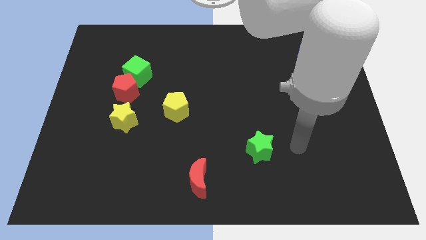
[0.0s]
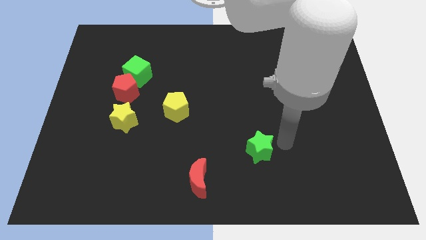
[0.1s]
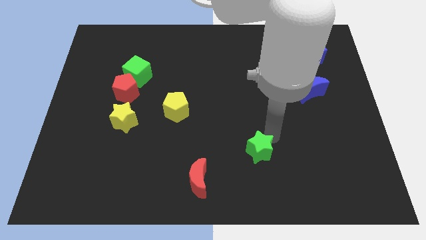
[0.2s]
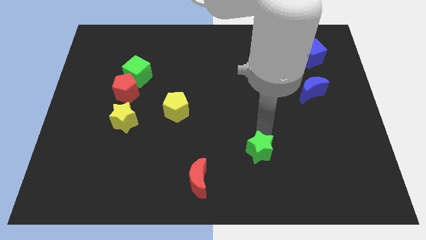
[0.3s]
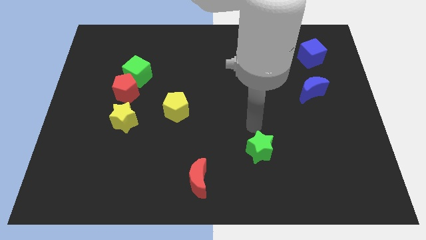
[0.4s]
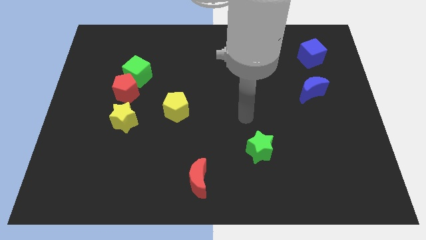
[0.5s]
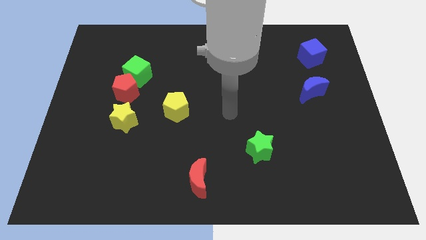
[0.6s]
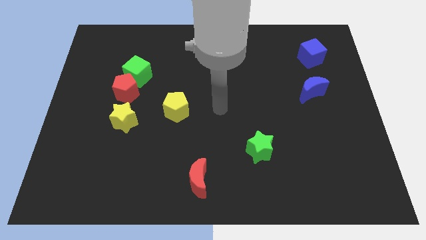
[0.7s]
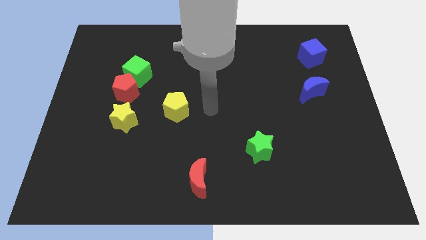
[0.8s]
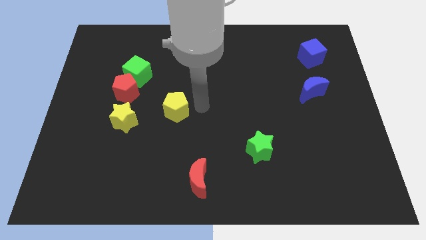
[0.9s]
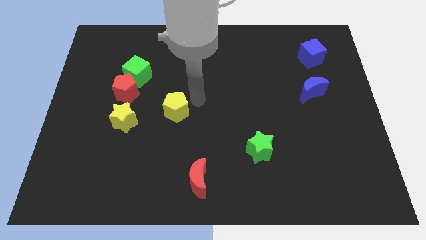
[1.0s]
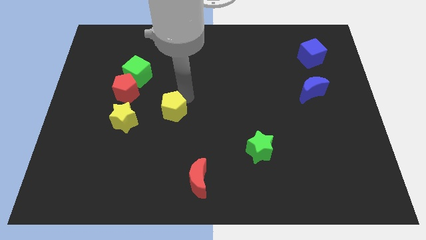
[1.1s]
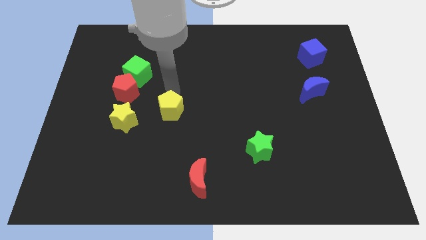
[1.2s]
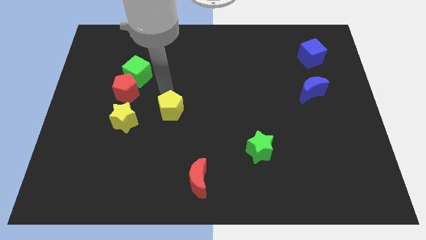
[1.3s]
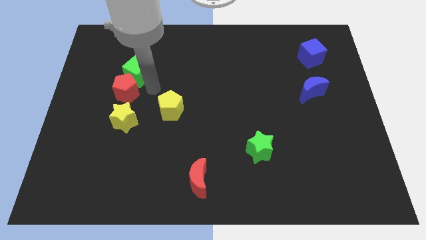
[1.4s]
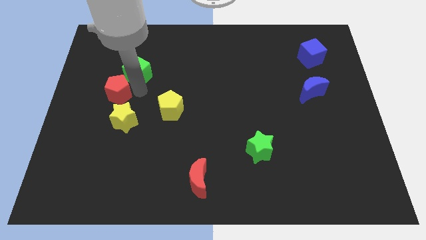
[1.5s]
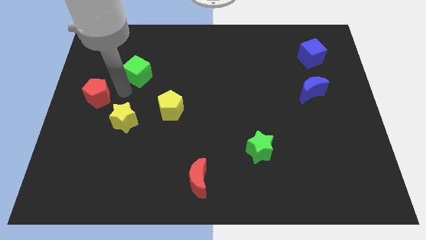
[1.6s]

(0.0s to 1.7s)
move the green cube away from the red pentagon

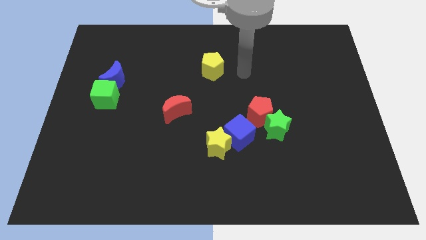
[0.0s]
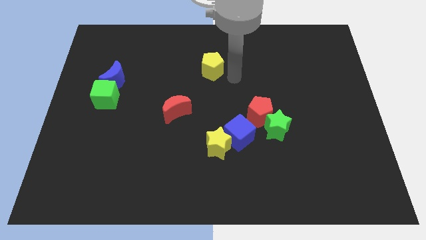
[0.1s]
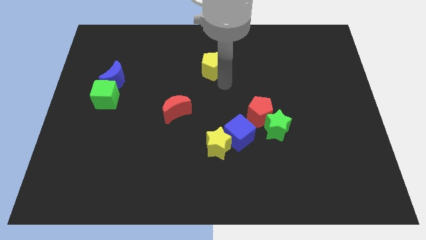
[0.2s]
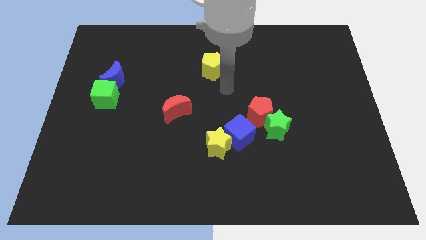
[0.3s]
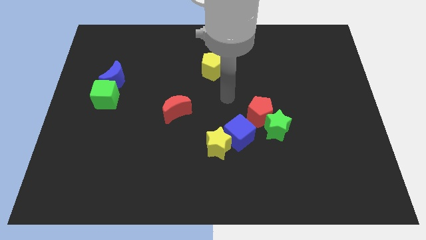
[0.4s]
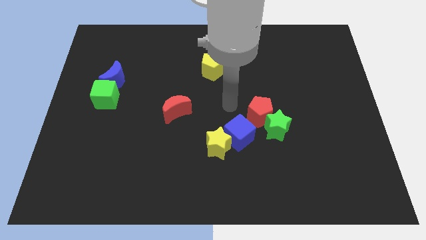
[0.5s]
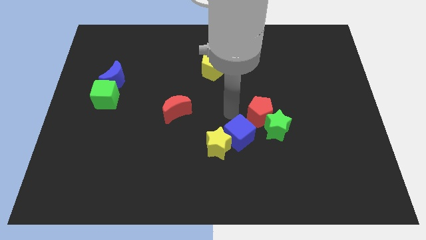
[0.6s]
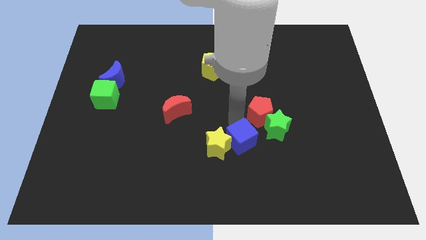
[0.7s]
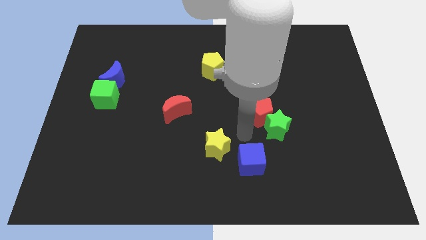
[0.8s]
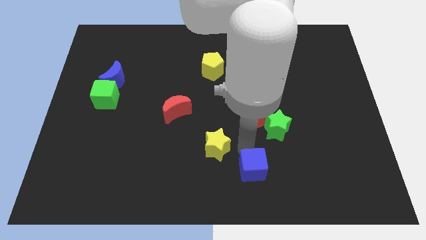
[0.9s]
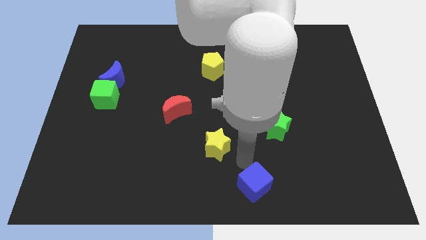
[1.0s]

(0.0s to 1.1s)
pull the yellow star apart from the blue cube

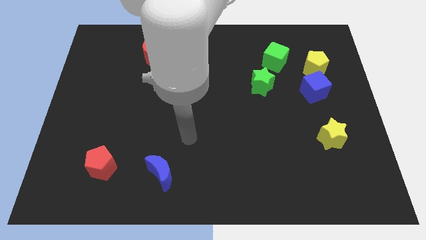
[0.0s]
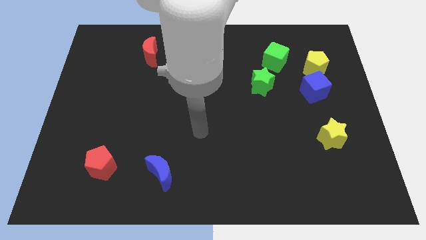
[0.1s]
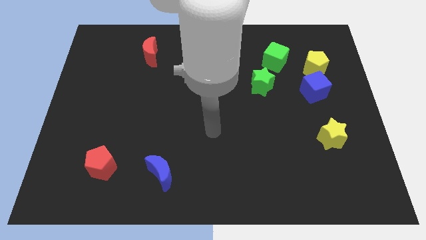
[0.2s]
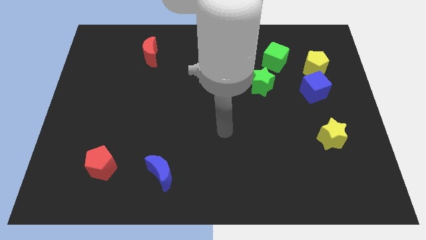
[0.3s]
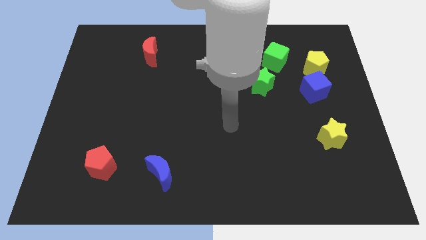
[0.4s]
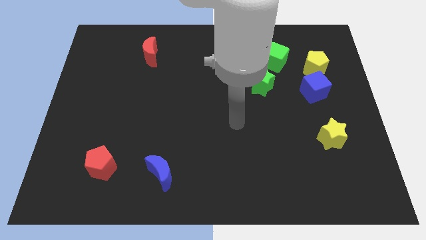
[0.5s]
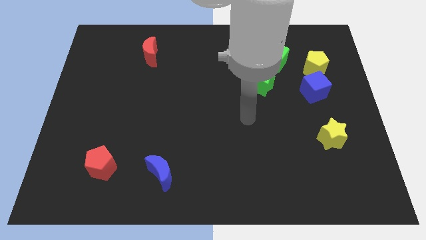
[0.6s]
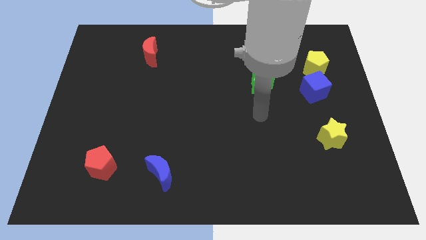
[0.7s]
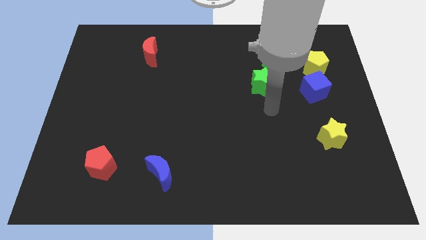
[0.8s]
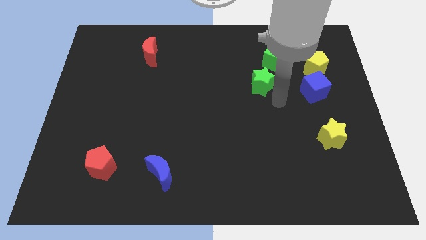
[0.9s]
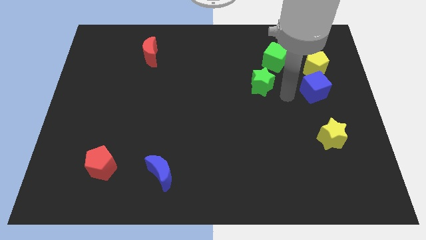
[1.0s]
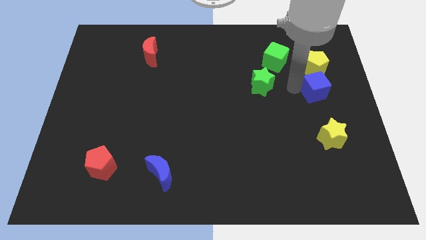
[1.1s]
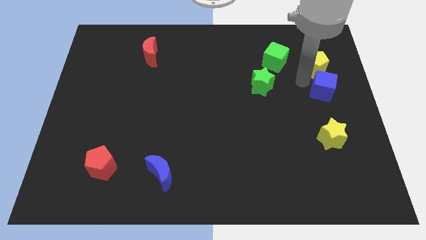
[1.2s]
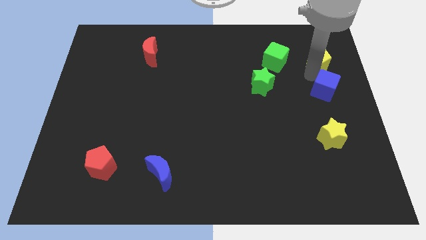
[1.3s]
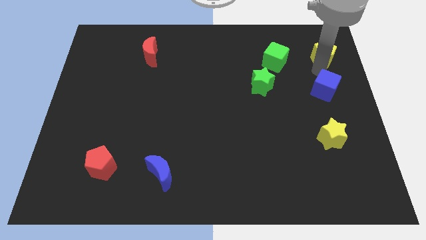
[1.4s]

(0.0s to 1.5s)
separate the blue cube from the yellow pentagon

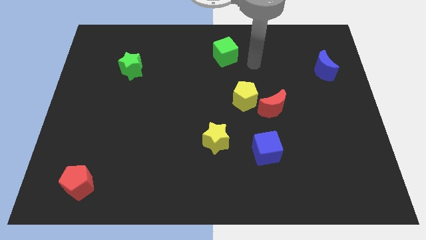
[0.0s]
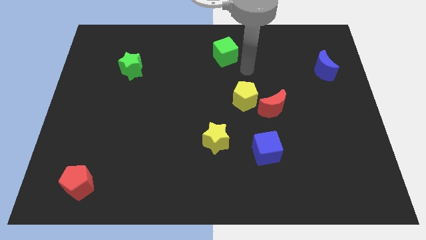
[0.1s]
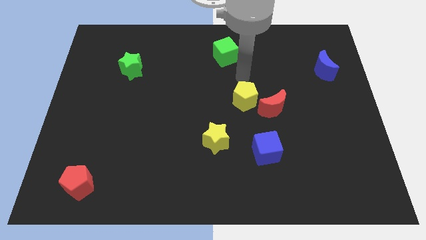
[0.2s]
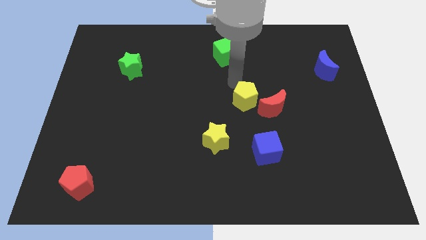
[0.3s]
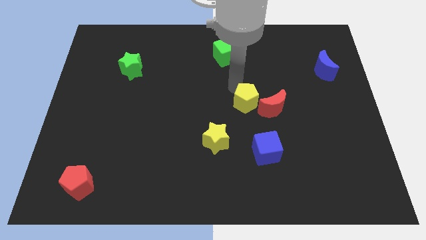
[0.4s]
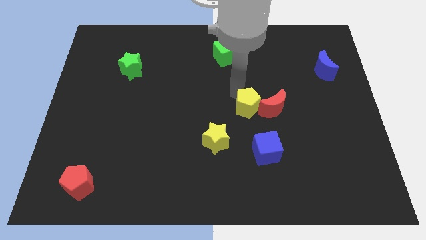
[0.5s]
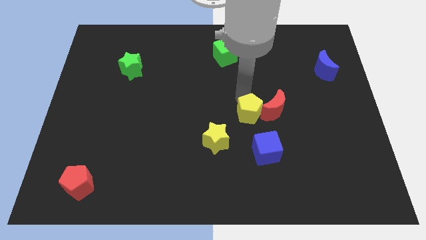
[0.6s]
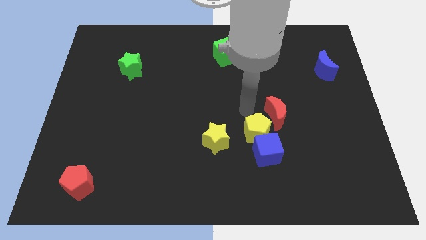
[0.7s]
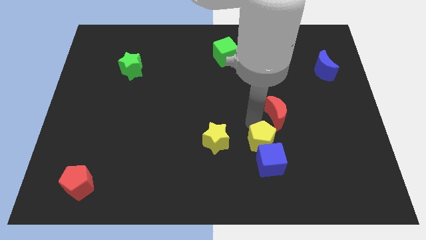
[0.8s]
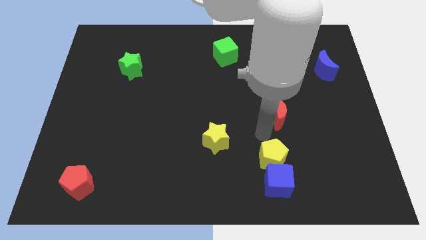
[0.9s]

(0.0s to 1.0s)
move the red moon away from the yellow pentagon

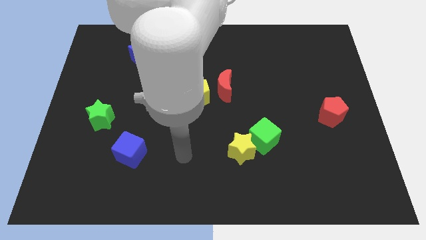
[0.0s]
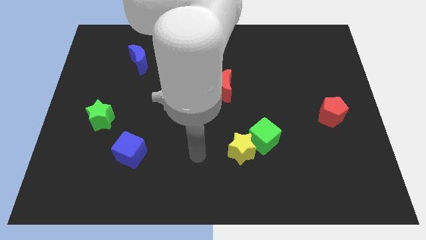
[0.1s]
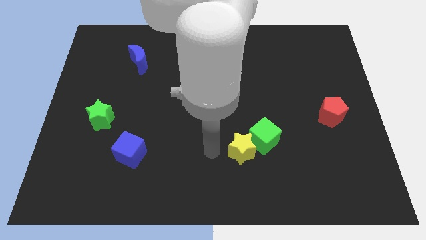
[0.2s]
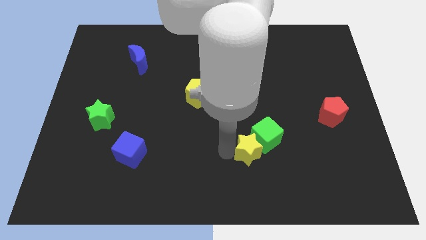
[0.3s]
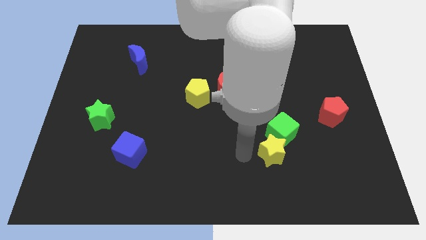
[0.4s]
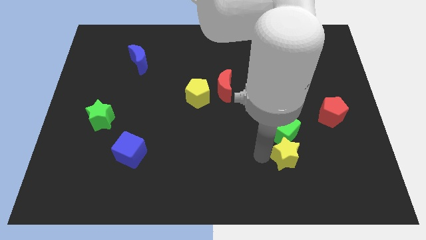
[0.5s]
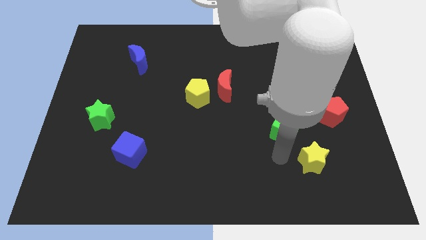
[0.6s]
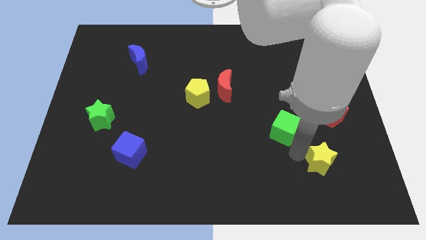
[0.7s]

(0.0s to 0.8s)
pull the green cube apart from the yellow star

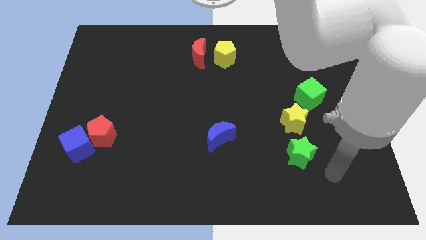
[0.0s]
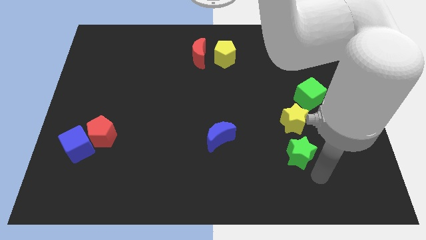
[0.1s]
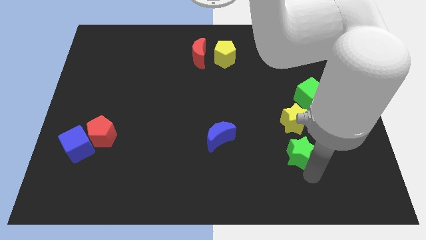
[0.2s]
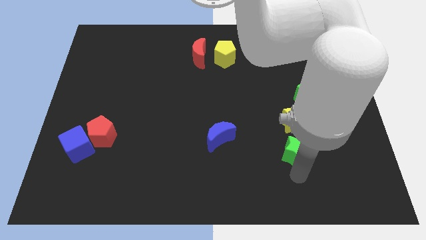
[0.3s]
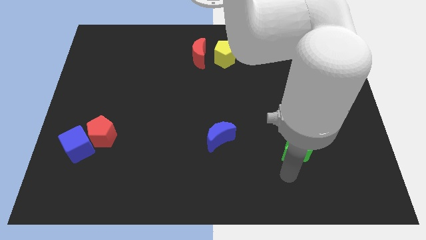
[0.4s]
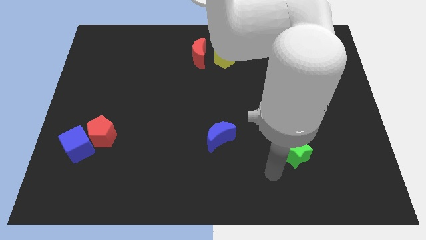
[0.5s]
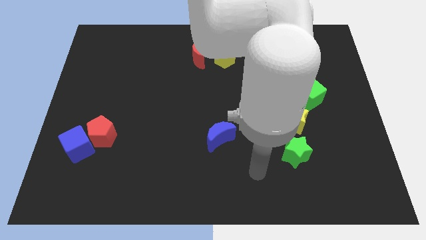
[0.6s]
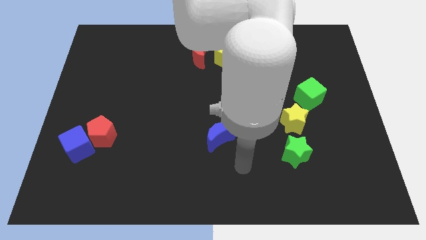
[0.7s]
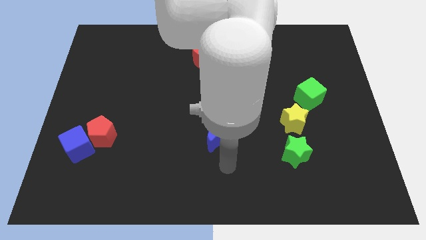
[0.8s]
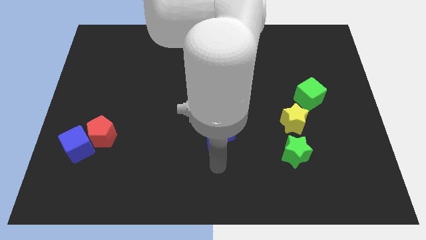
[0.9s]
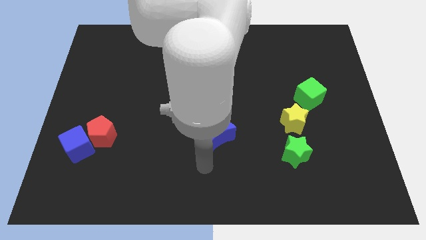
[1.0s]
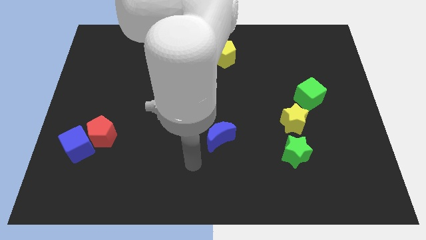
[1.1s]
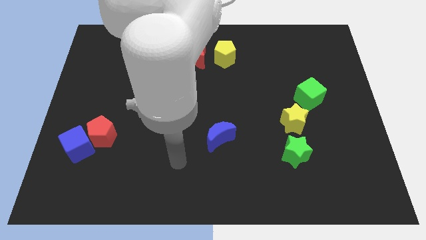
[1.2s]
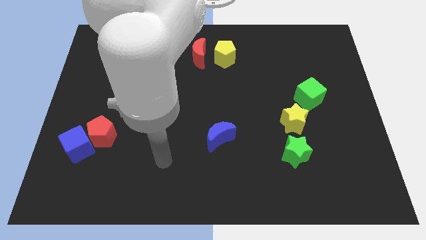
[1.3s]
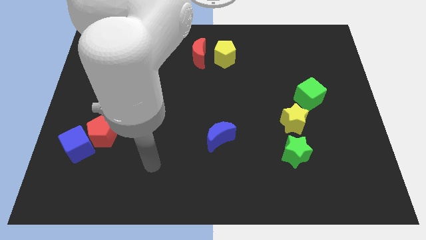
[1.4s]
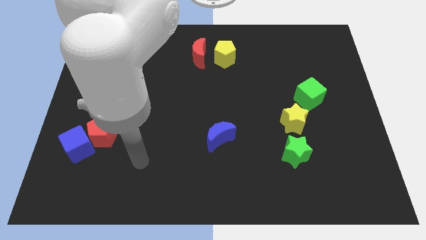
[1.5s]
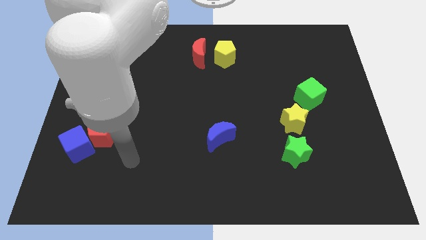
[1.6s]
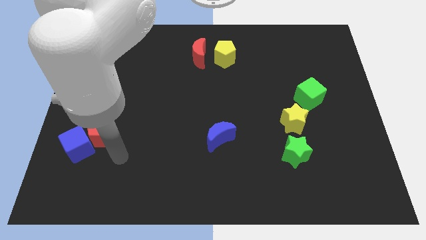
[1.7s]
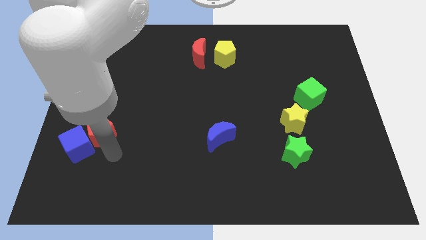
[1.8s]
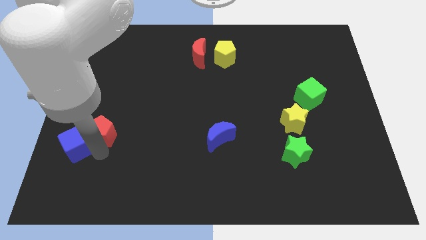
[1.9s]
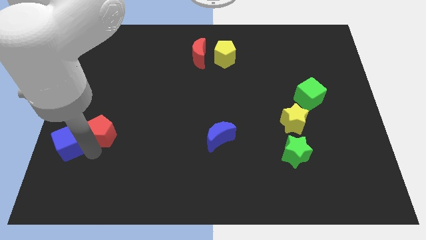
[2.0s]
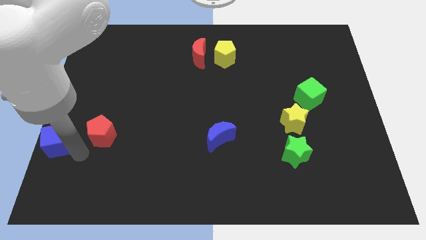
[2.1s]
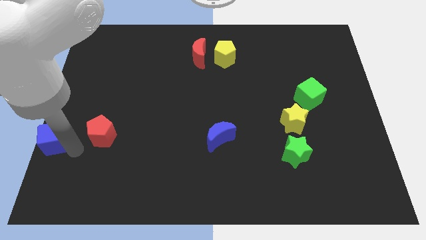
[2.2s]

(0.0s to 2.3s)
move the red pentagon away from the blue cube

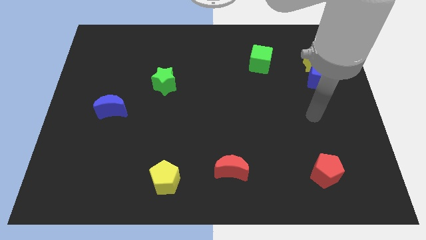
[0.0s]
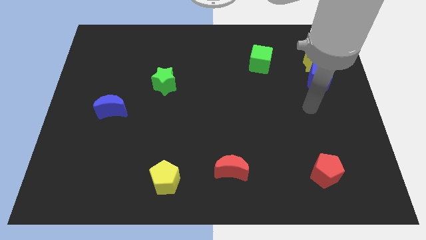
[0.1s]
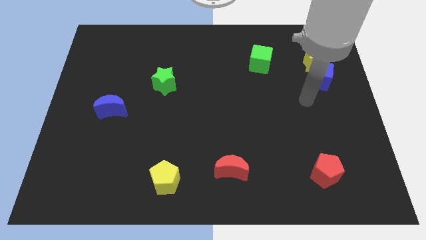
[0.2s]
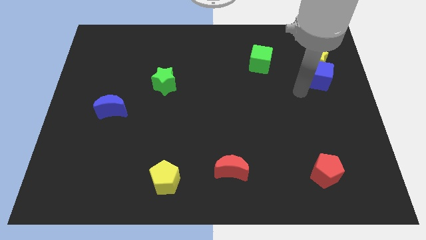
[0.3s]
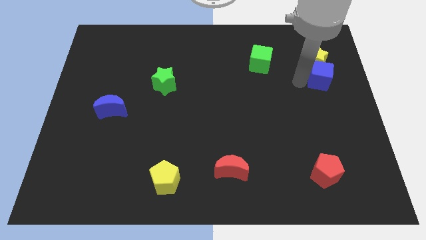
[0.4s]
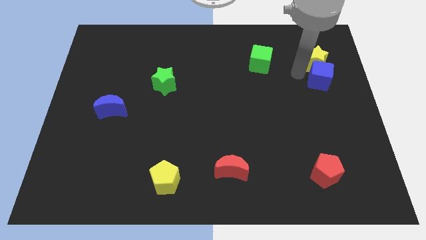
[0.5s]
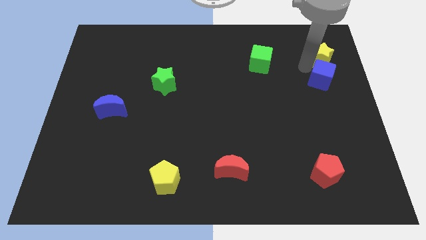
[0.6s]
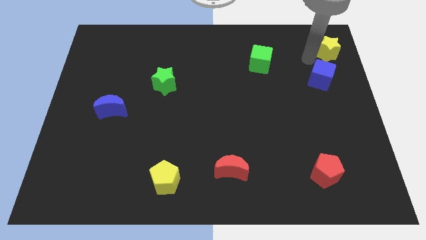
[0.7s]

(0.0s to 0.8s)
pull the blue cube apart from the yellow star

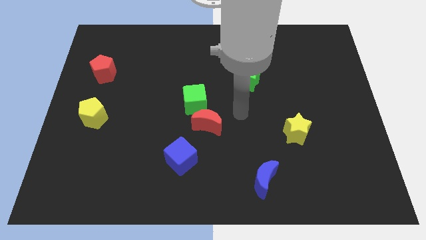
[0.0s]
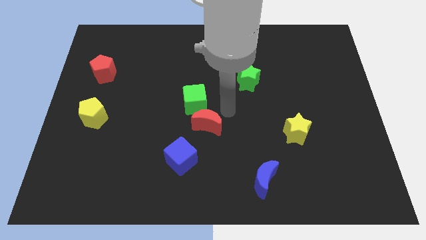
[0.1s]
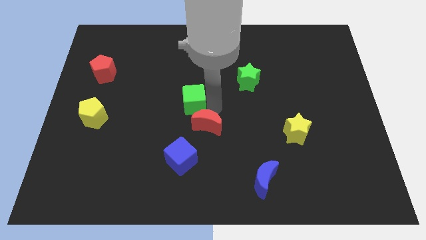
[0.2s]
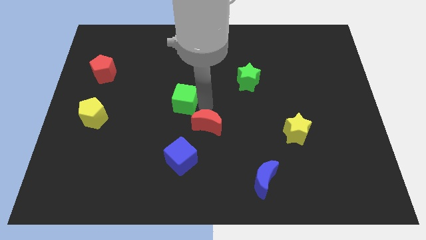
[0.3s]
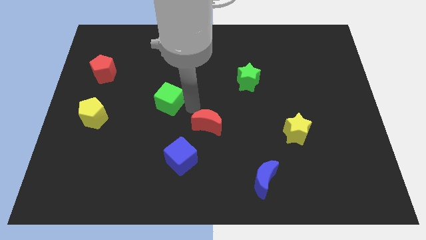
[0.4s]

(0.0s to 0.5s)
move the red moon away from the green cube
